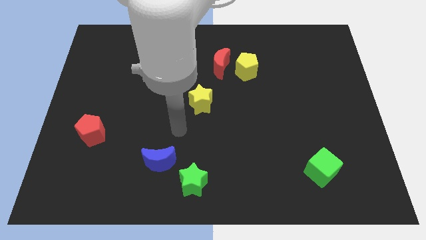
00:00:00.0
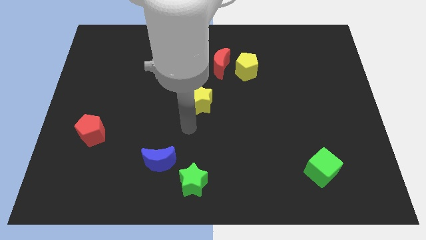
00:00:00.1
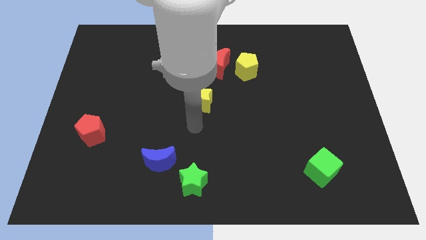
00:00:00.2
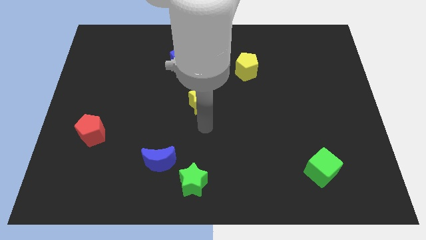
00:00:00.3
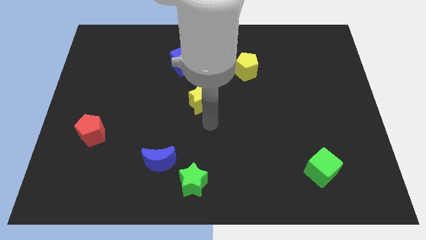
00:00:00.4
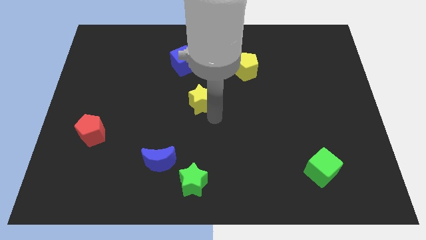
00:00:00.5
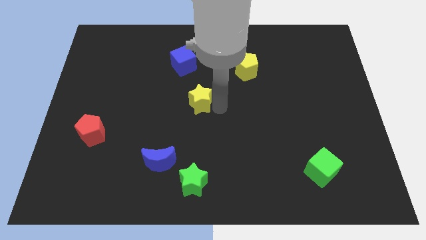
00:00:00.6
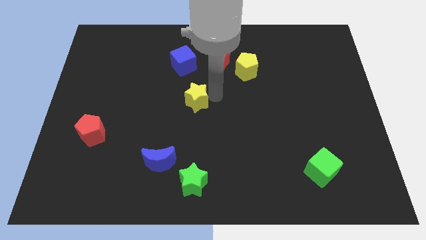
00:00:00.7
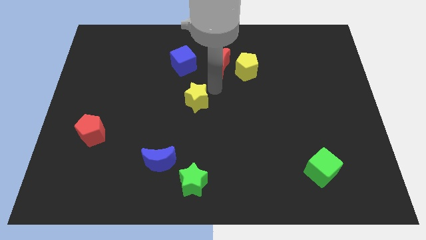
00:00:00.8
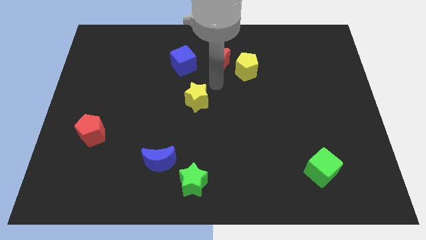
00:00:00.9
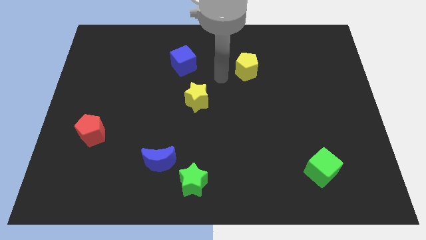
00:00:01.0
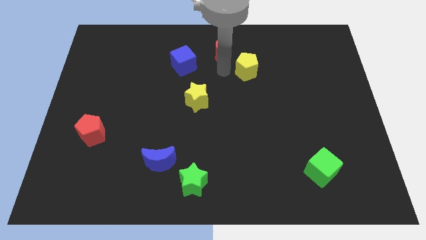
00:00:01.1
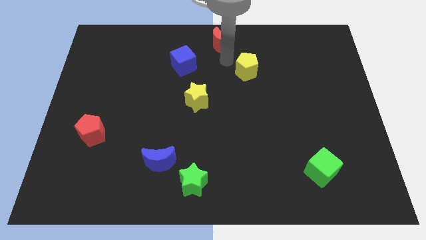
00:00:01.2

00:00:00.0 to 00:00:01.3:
separate the yellow pentagon from the red moon

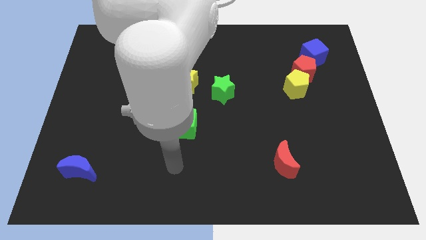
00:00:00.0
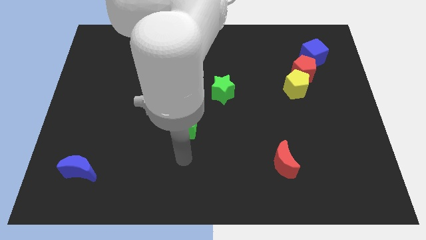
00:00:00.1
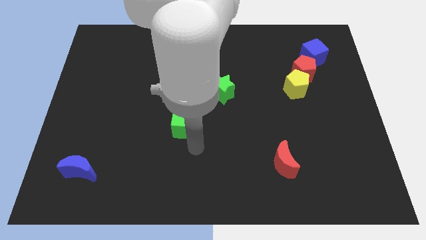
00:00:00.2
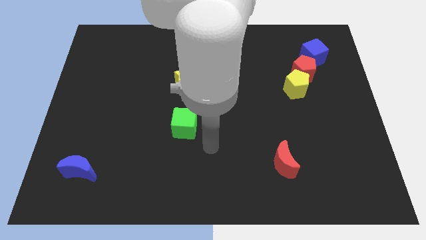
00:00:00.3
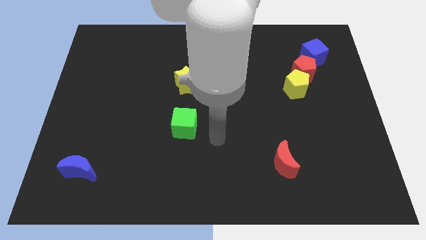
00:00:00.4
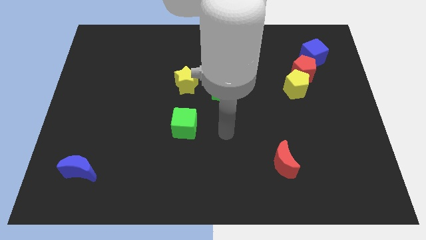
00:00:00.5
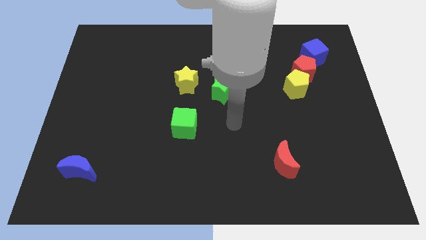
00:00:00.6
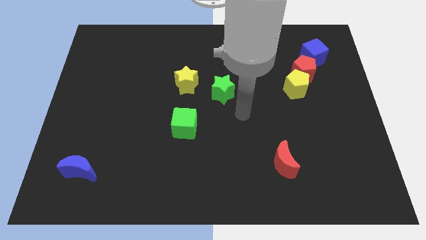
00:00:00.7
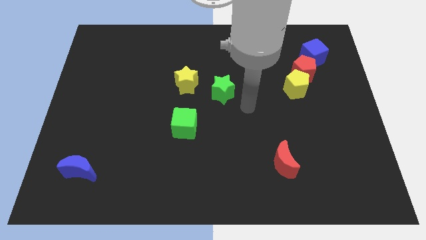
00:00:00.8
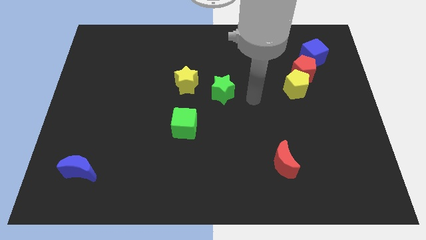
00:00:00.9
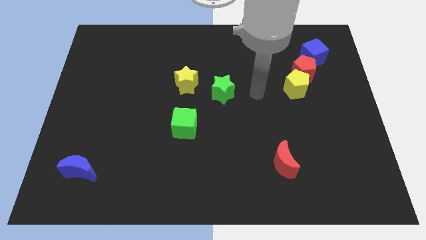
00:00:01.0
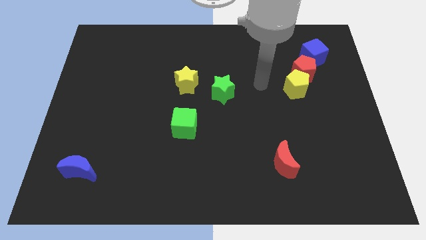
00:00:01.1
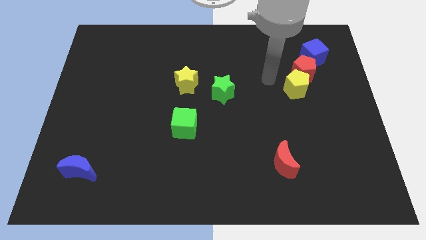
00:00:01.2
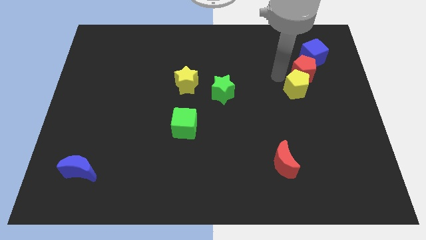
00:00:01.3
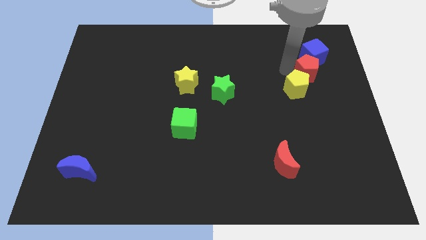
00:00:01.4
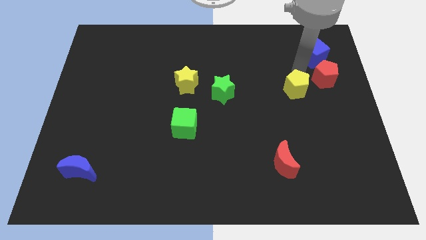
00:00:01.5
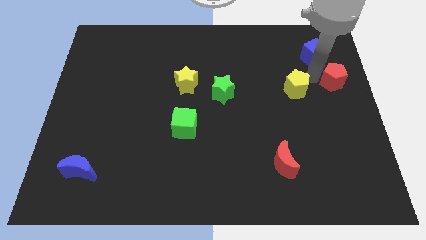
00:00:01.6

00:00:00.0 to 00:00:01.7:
separate the yellow pentagon from the red pentagon

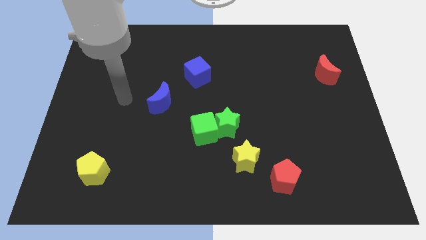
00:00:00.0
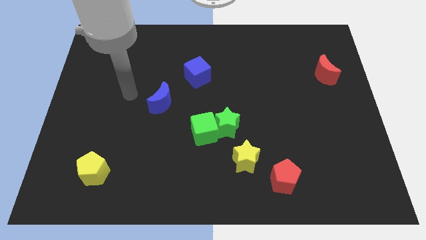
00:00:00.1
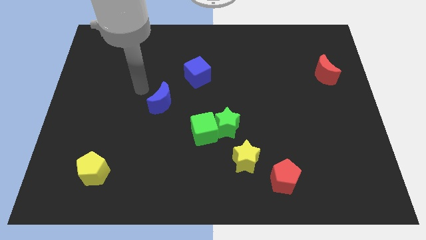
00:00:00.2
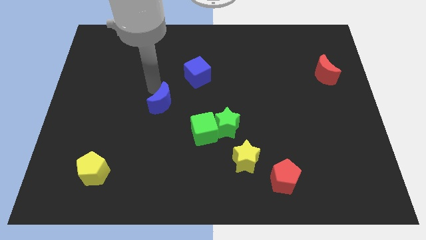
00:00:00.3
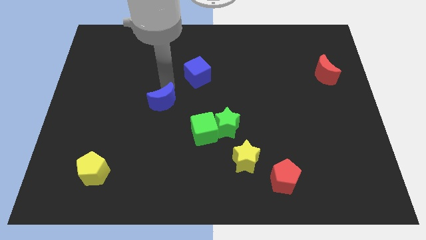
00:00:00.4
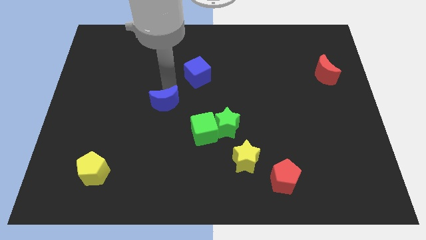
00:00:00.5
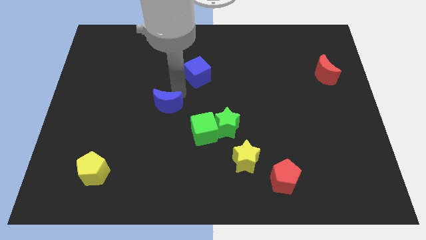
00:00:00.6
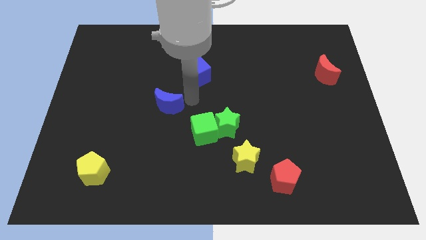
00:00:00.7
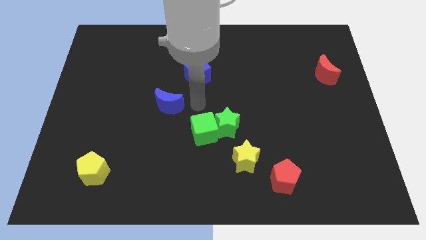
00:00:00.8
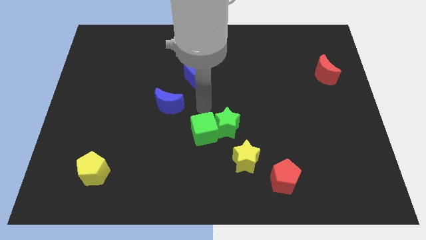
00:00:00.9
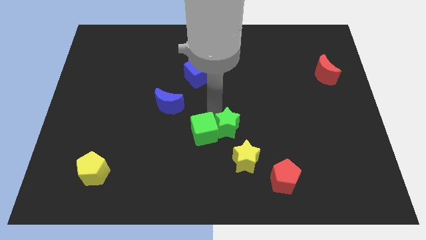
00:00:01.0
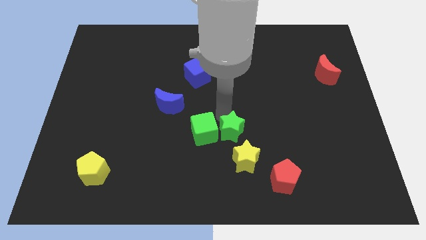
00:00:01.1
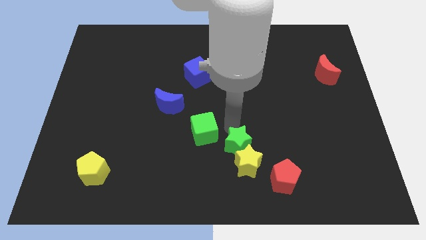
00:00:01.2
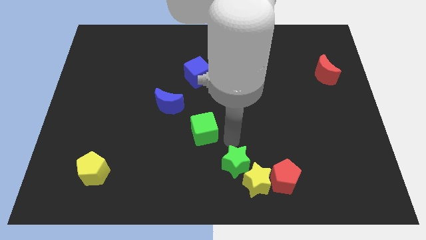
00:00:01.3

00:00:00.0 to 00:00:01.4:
separate the green cube from the green star

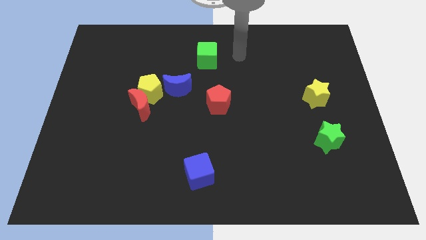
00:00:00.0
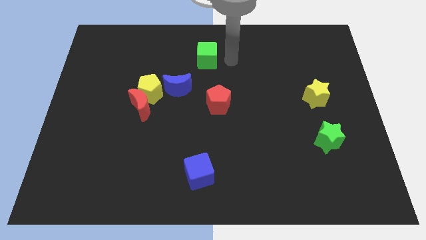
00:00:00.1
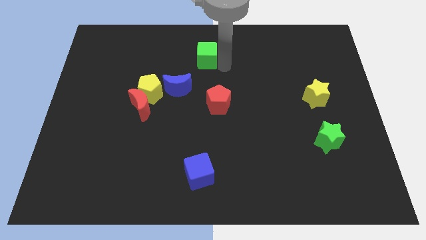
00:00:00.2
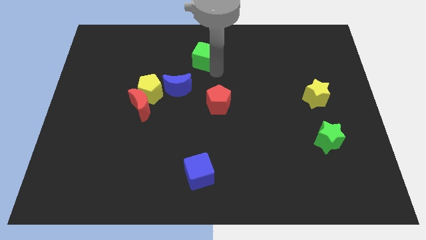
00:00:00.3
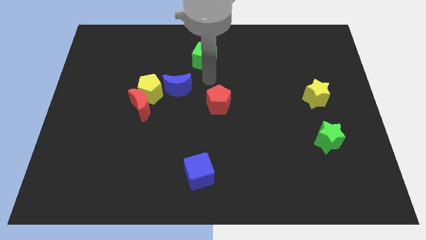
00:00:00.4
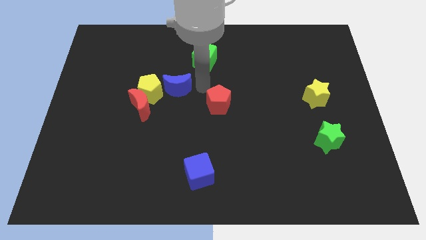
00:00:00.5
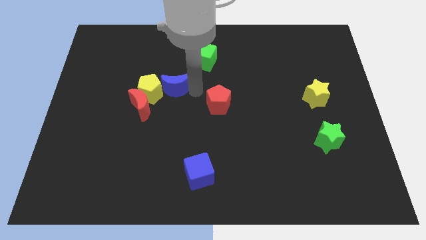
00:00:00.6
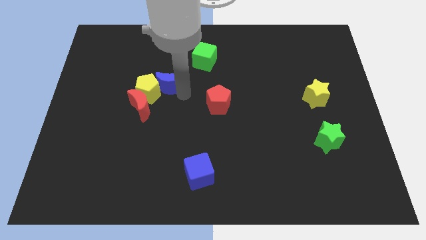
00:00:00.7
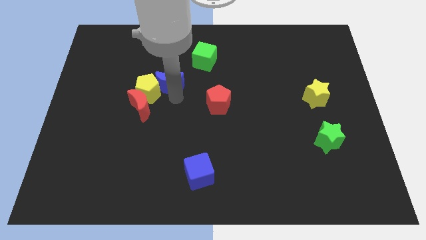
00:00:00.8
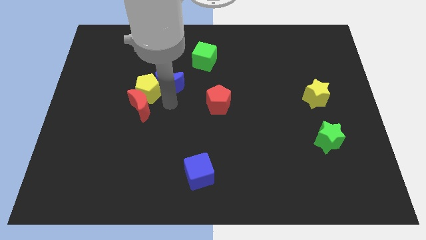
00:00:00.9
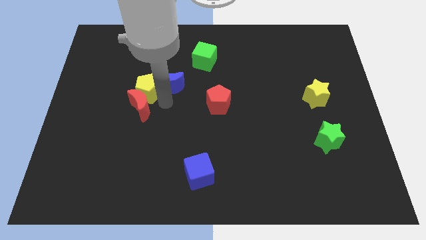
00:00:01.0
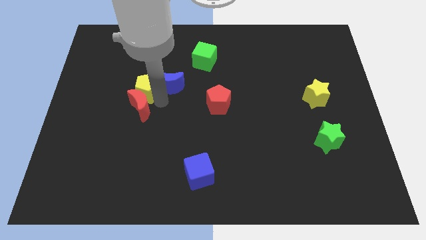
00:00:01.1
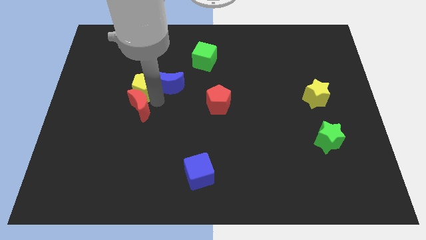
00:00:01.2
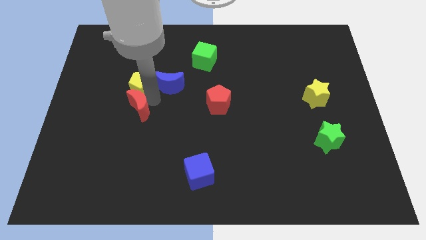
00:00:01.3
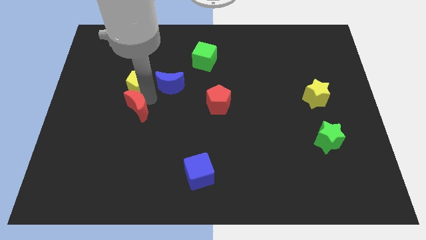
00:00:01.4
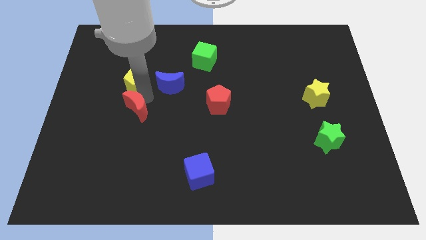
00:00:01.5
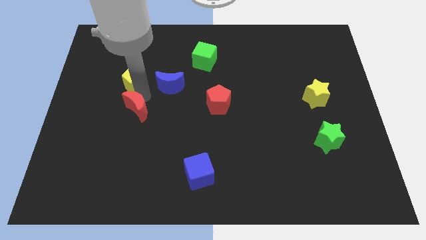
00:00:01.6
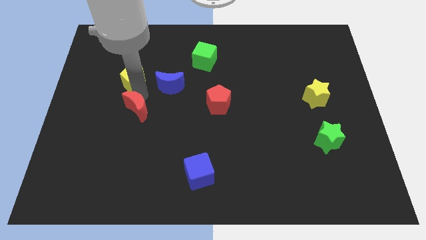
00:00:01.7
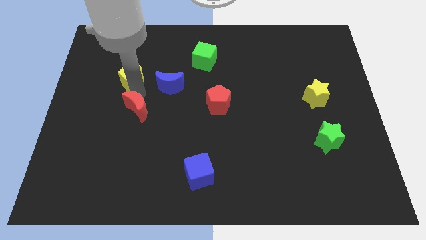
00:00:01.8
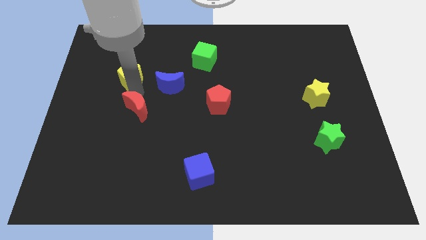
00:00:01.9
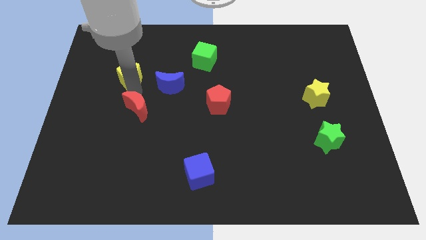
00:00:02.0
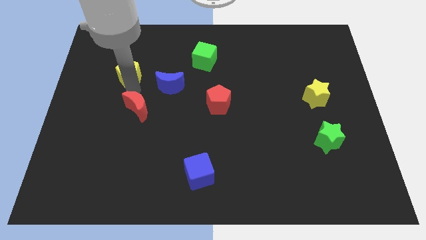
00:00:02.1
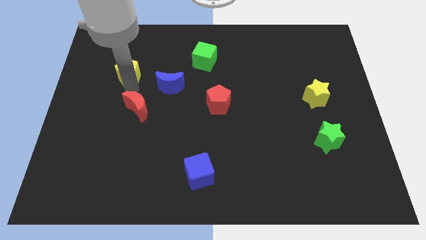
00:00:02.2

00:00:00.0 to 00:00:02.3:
separate the yellow pentagon from the red moon and blue moon

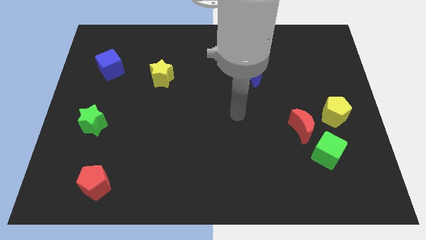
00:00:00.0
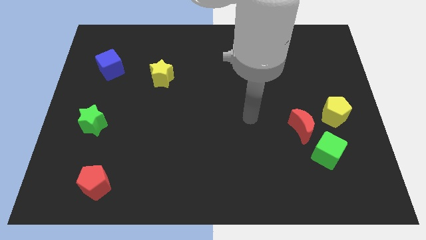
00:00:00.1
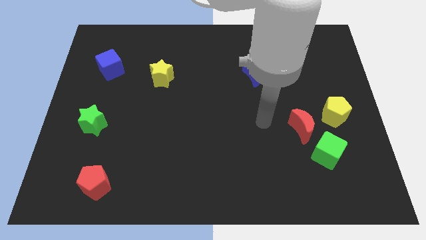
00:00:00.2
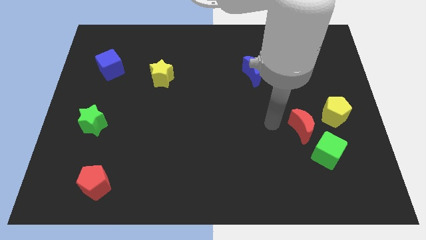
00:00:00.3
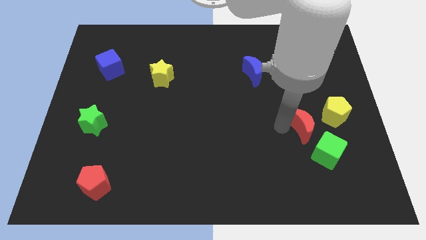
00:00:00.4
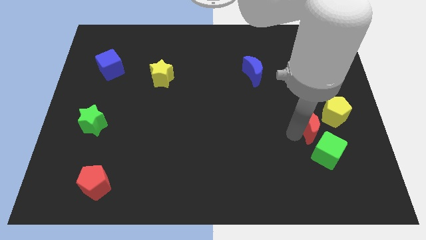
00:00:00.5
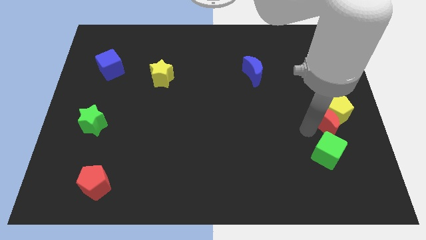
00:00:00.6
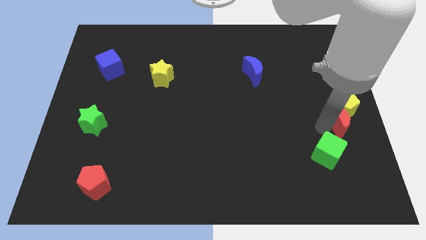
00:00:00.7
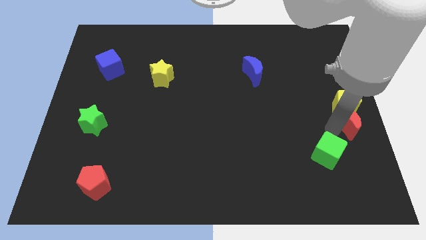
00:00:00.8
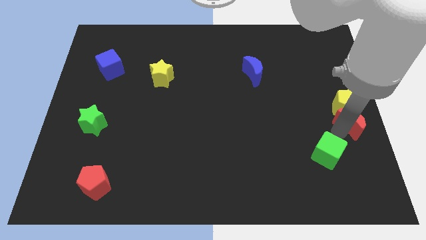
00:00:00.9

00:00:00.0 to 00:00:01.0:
separate the green cube from the red moon

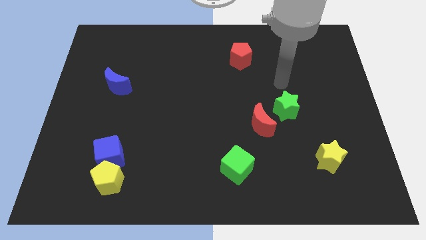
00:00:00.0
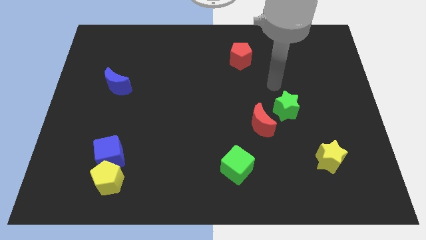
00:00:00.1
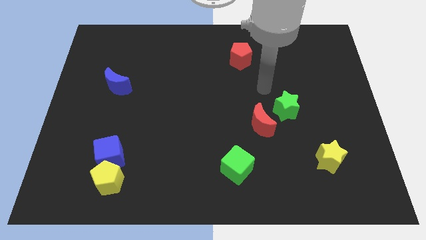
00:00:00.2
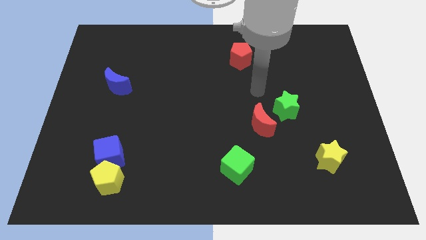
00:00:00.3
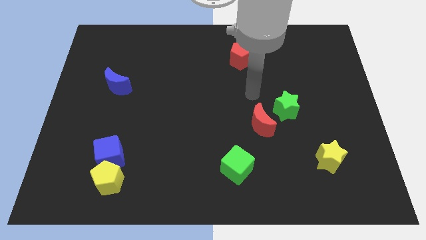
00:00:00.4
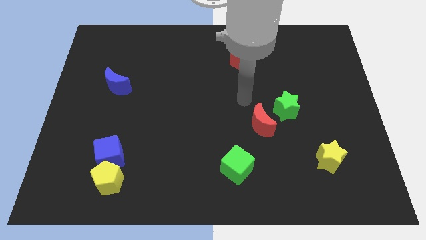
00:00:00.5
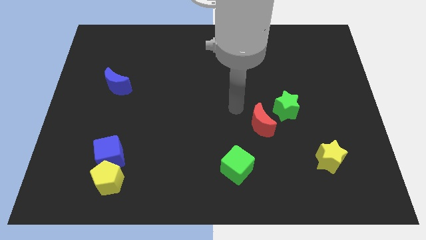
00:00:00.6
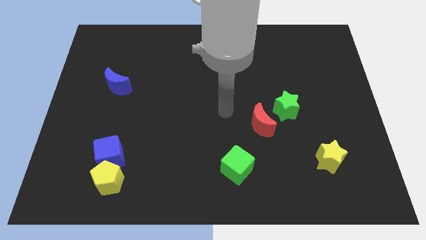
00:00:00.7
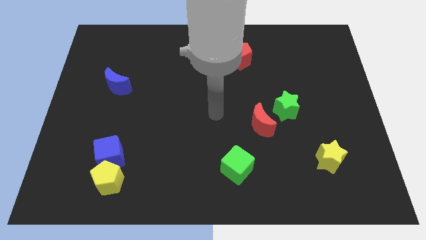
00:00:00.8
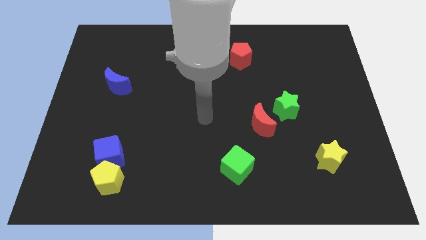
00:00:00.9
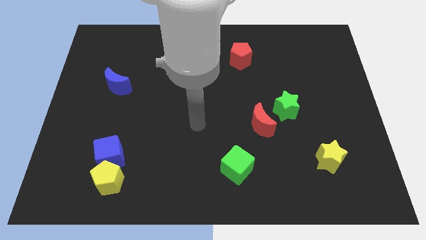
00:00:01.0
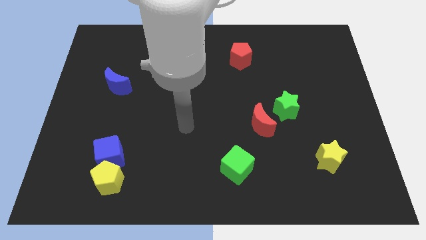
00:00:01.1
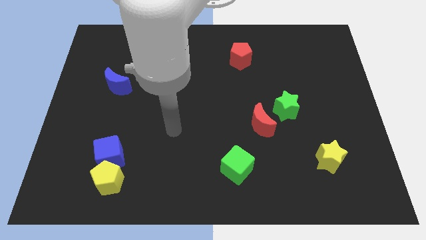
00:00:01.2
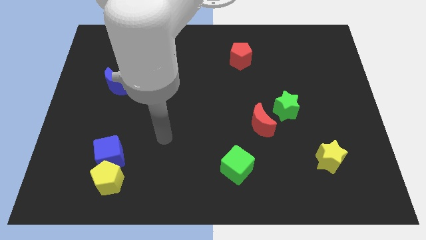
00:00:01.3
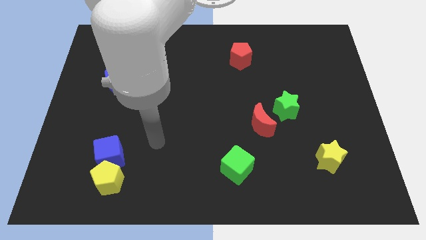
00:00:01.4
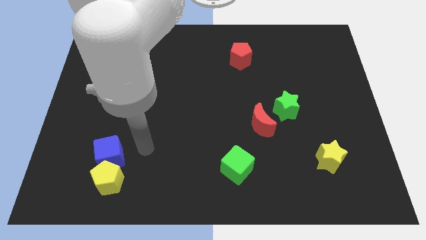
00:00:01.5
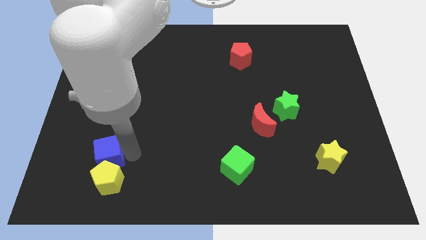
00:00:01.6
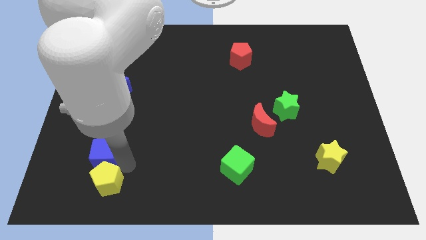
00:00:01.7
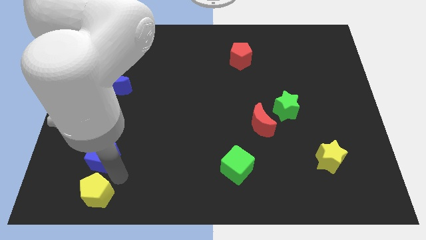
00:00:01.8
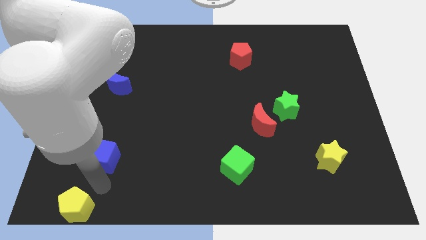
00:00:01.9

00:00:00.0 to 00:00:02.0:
separate the blue cube from the yellow pentagon
